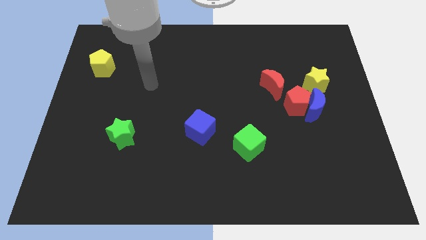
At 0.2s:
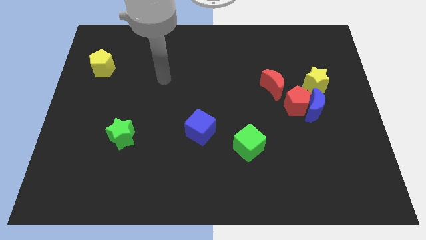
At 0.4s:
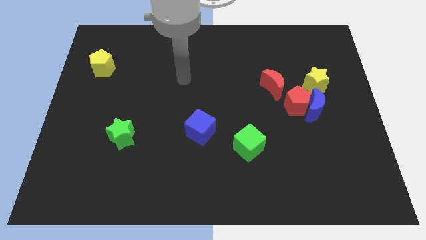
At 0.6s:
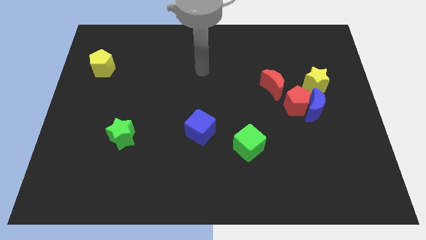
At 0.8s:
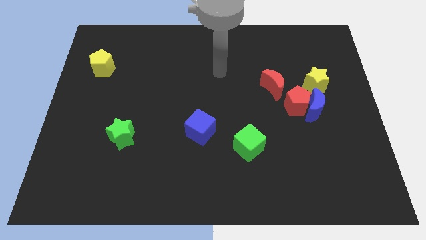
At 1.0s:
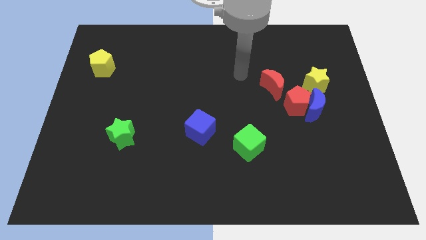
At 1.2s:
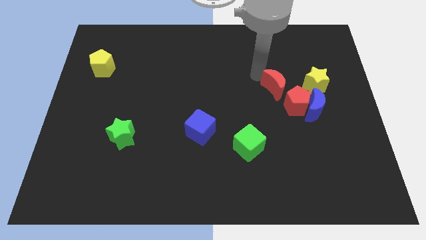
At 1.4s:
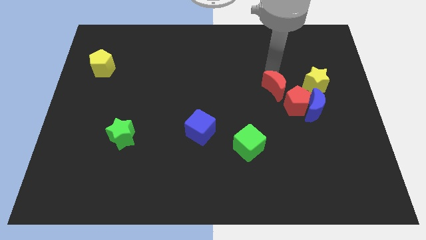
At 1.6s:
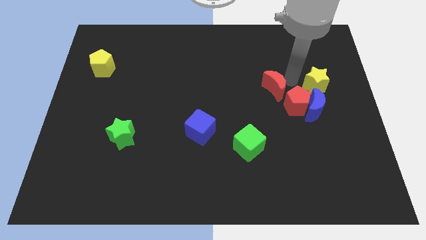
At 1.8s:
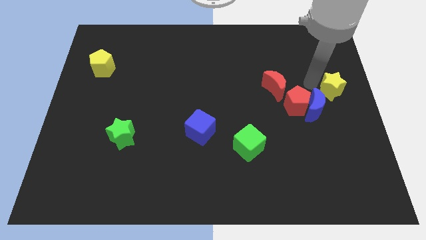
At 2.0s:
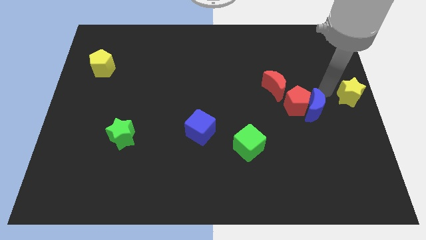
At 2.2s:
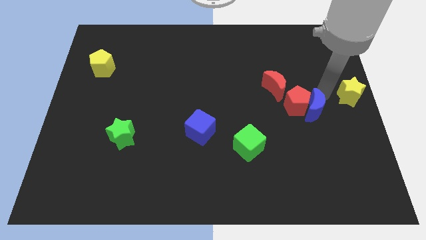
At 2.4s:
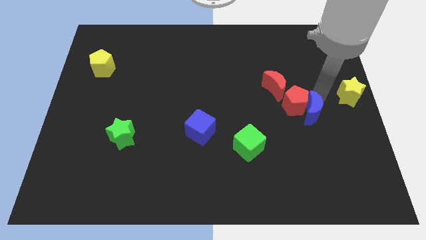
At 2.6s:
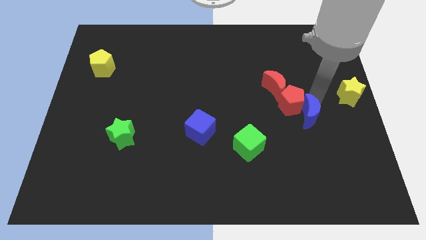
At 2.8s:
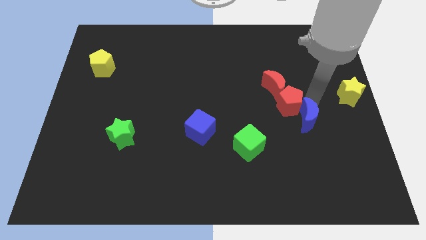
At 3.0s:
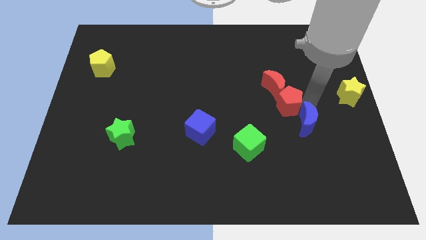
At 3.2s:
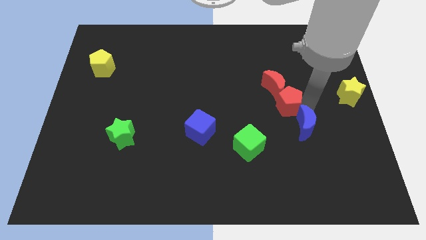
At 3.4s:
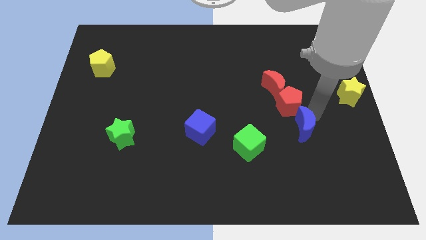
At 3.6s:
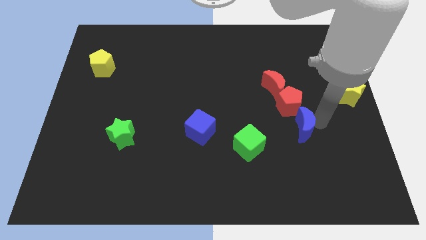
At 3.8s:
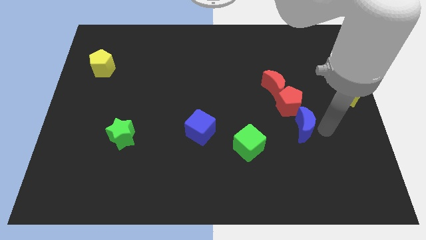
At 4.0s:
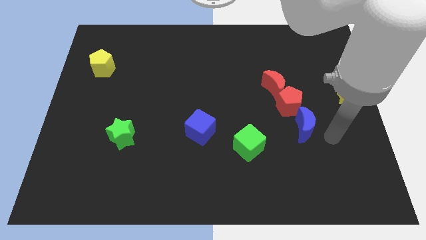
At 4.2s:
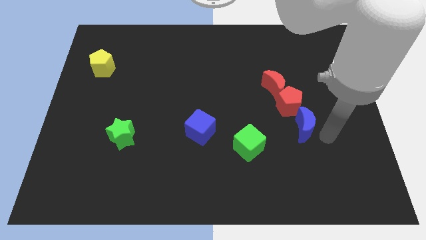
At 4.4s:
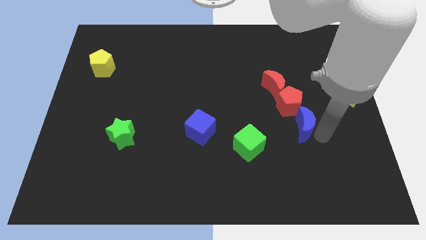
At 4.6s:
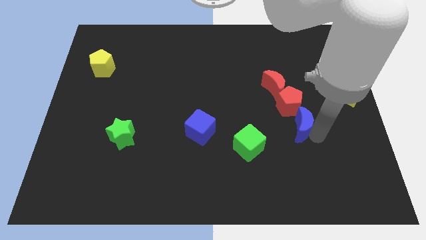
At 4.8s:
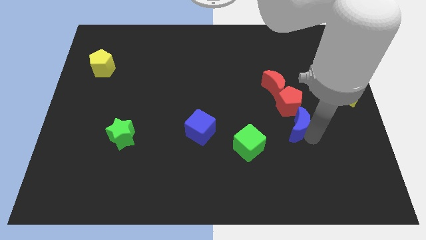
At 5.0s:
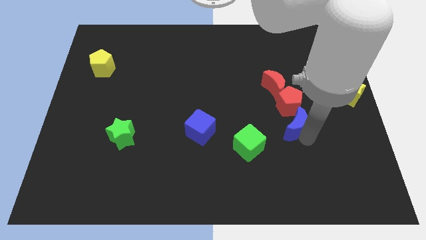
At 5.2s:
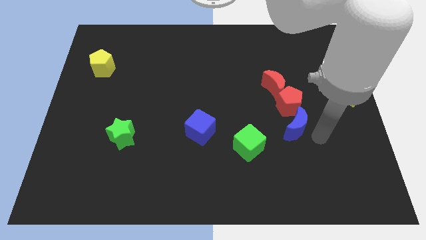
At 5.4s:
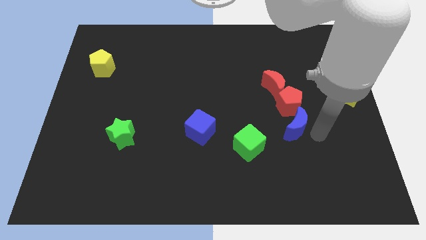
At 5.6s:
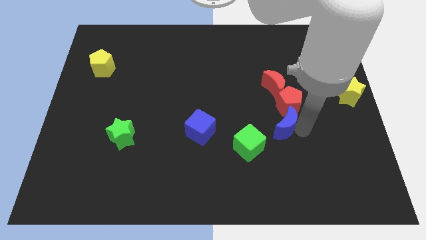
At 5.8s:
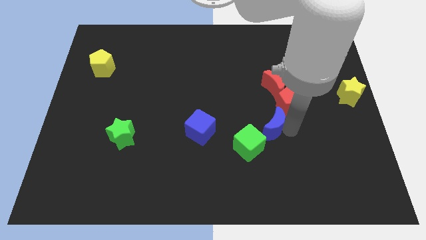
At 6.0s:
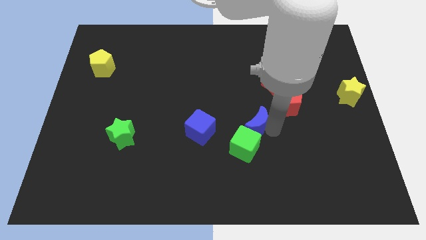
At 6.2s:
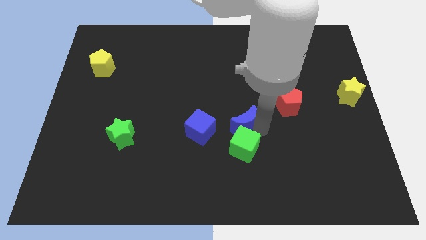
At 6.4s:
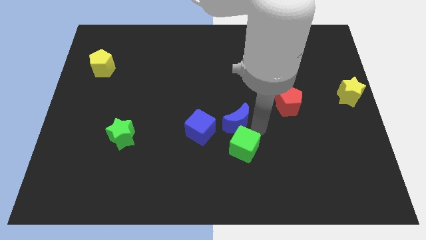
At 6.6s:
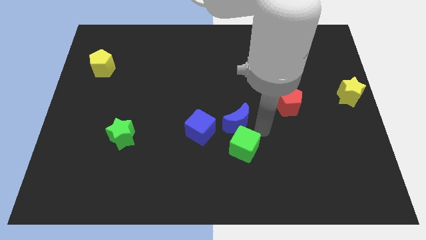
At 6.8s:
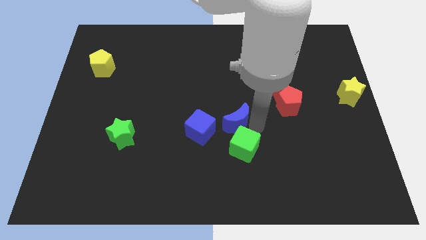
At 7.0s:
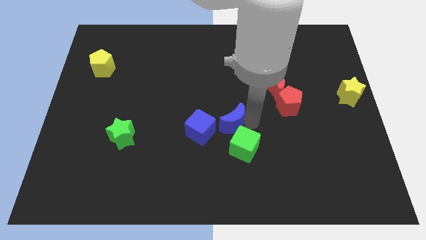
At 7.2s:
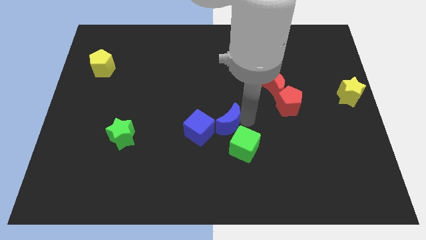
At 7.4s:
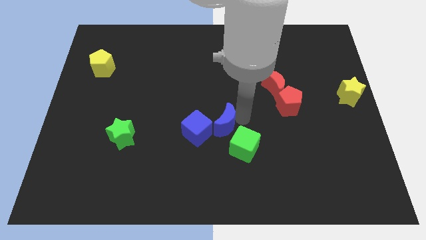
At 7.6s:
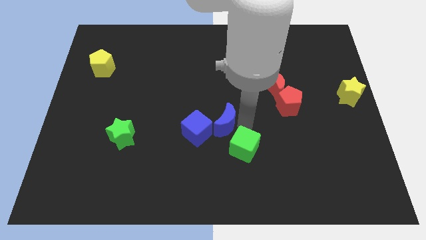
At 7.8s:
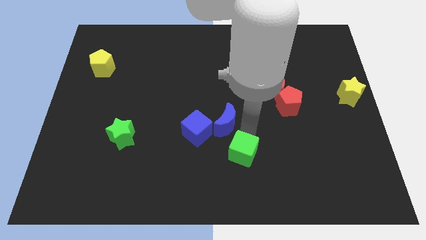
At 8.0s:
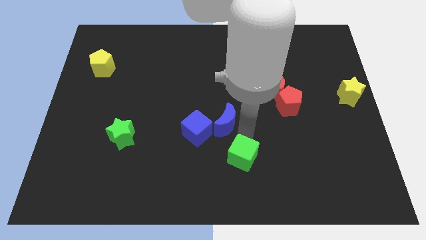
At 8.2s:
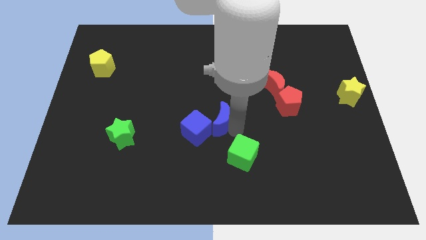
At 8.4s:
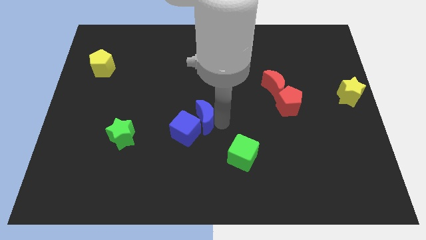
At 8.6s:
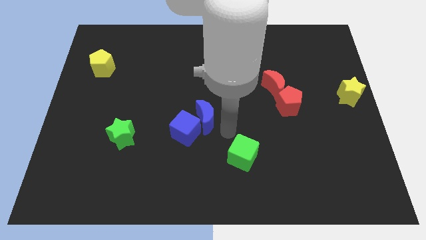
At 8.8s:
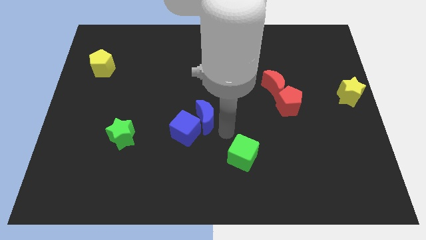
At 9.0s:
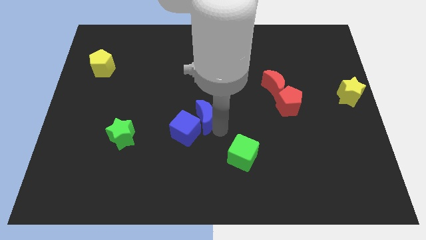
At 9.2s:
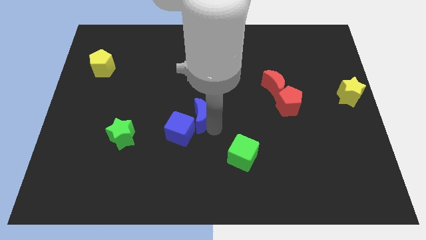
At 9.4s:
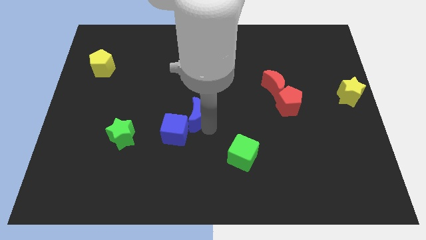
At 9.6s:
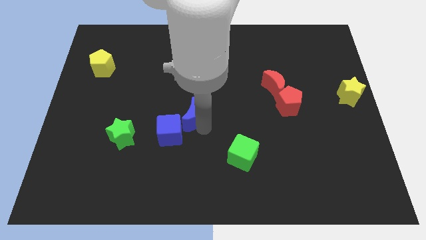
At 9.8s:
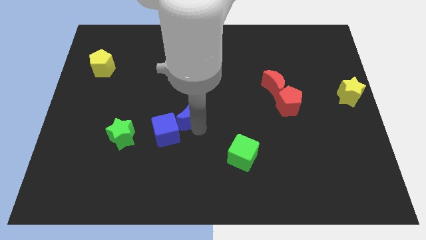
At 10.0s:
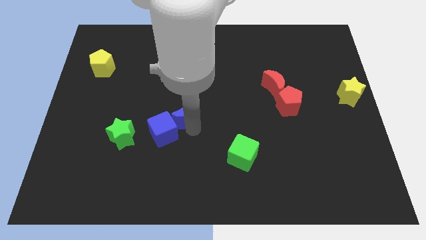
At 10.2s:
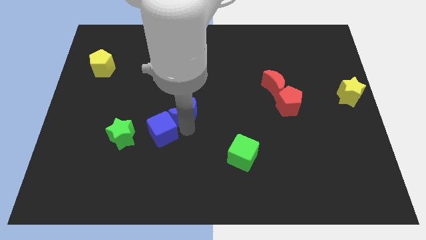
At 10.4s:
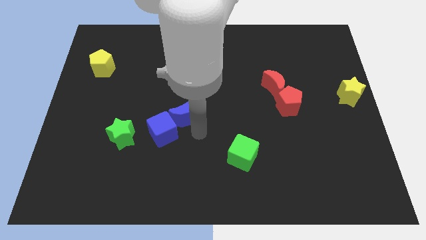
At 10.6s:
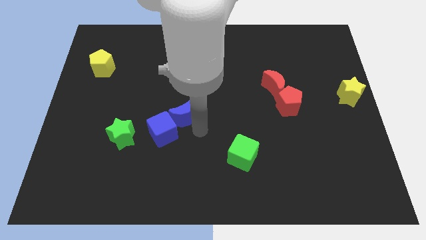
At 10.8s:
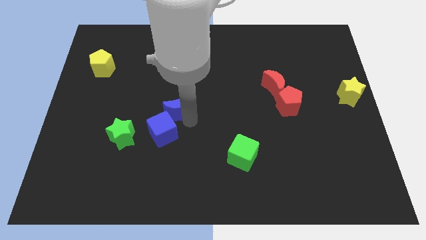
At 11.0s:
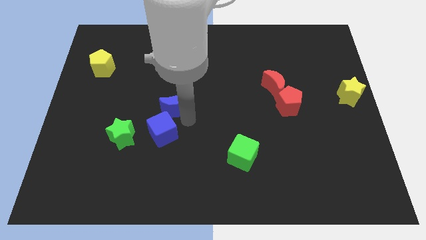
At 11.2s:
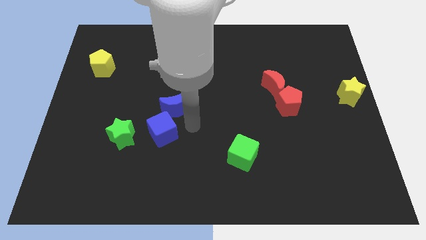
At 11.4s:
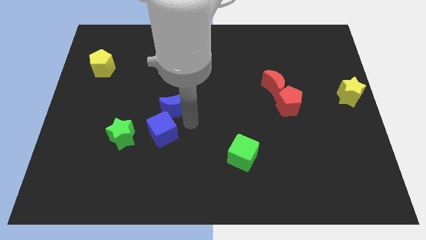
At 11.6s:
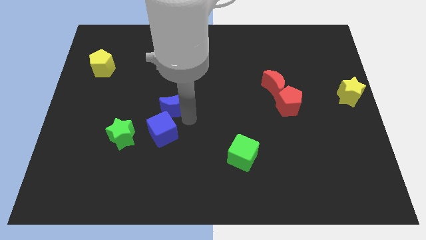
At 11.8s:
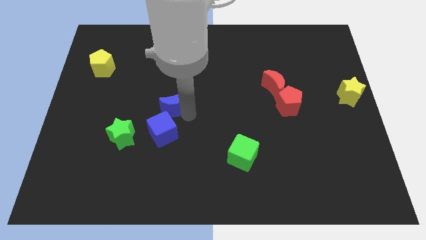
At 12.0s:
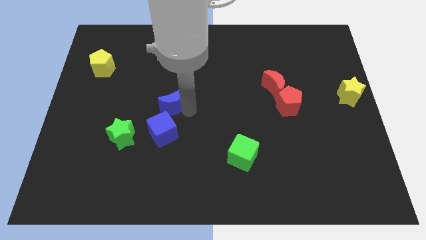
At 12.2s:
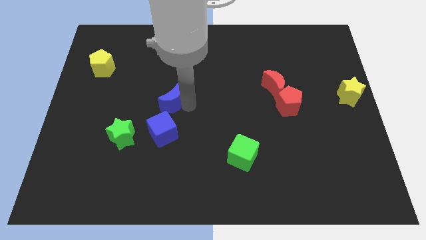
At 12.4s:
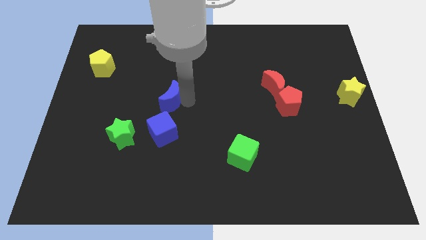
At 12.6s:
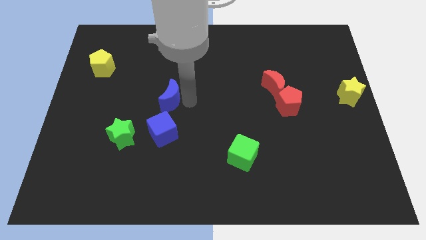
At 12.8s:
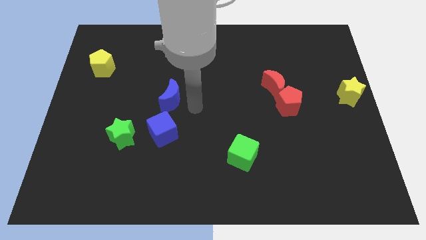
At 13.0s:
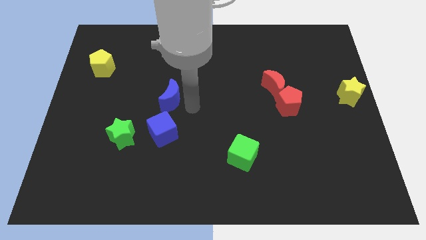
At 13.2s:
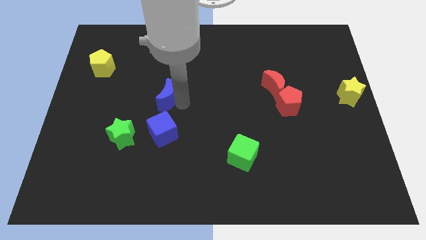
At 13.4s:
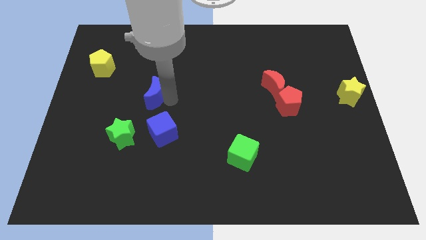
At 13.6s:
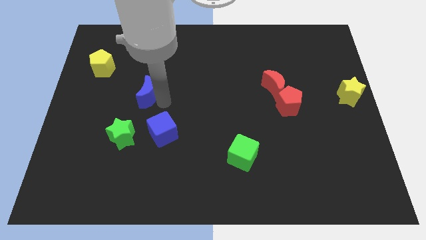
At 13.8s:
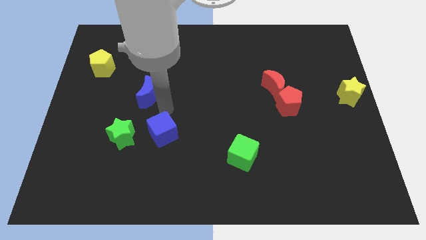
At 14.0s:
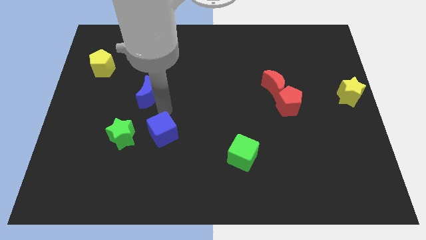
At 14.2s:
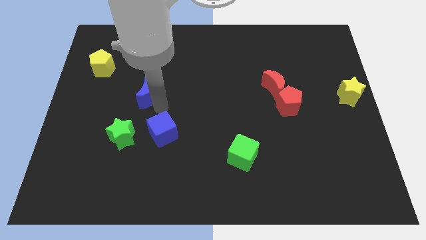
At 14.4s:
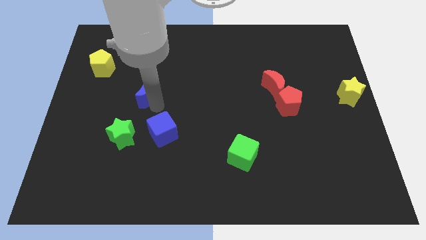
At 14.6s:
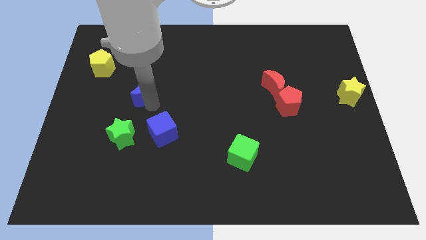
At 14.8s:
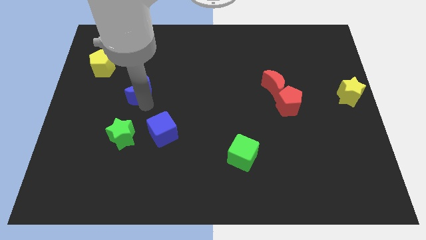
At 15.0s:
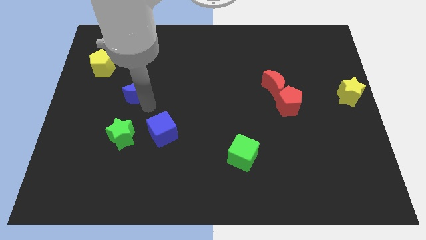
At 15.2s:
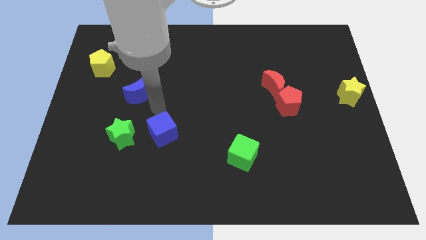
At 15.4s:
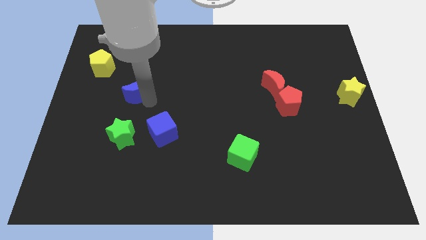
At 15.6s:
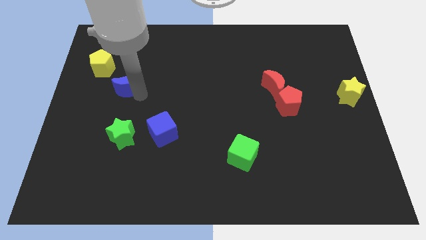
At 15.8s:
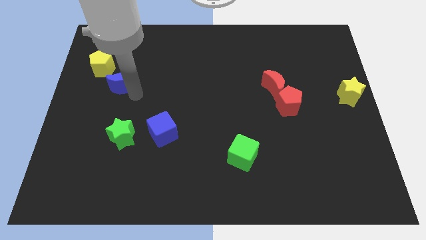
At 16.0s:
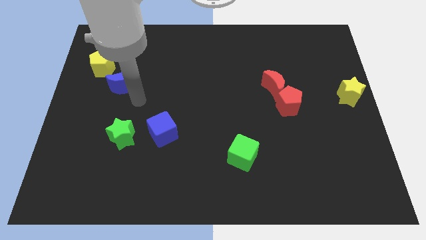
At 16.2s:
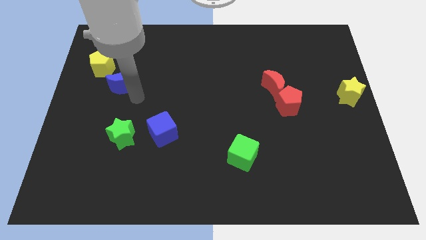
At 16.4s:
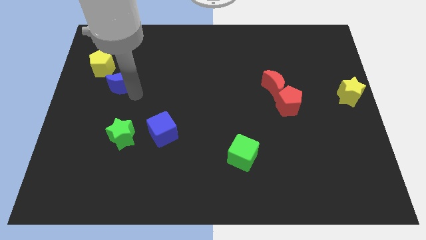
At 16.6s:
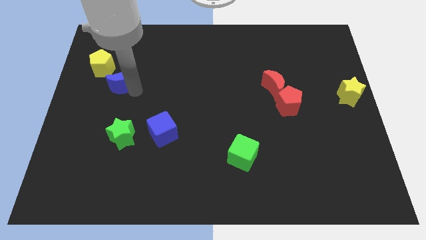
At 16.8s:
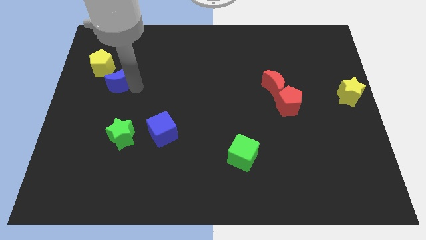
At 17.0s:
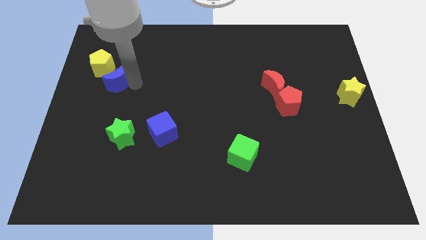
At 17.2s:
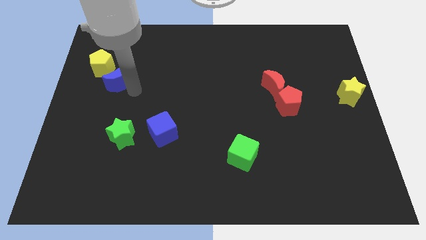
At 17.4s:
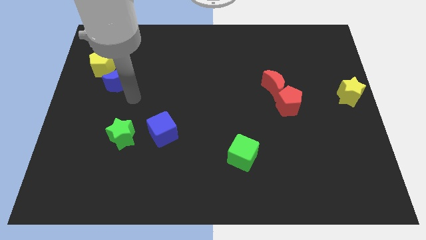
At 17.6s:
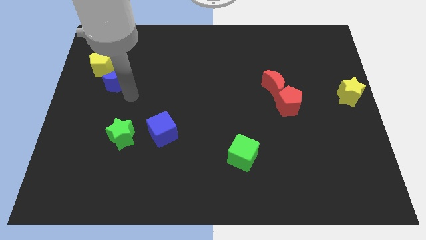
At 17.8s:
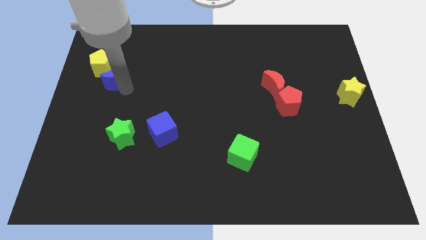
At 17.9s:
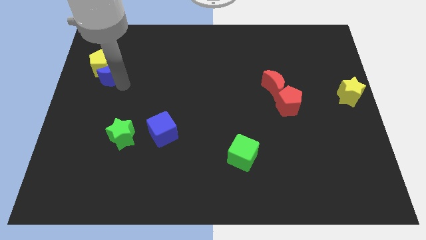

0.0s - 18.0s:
slide the blue moon to the yellow pentagon
